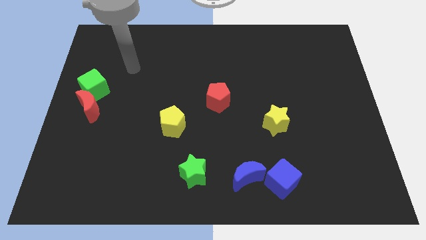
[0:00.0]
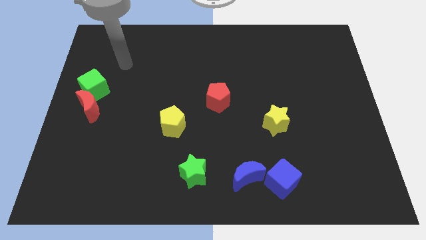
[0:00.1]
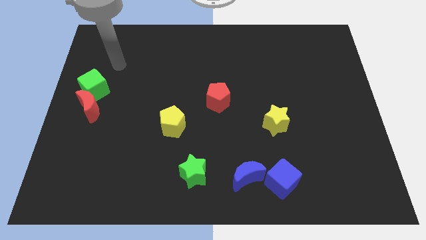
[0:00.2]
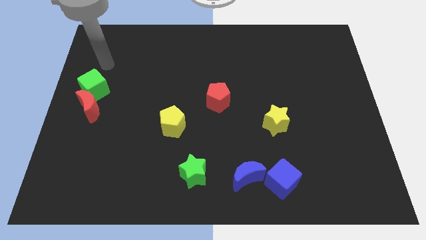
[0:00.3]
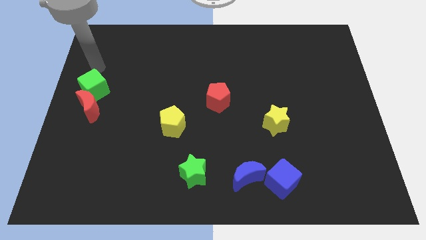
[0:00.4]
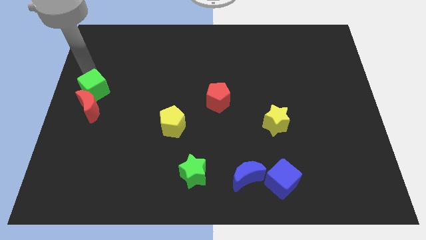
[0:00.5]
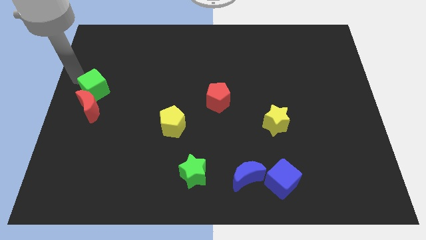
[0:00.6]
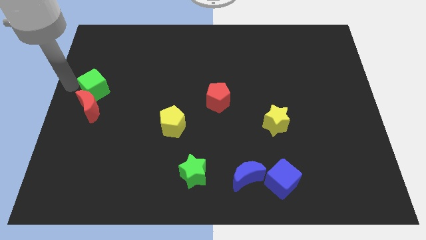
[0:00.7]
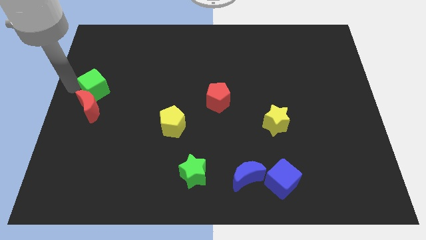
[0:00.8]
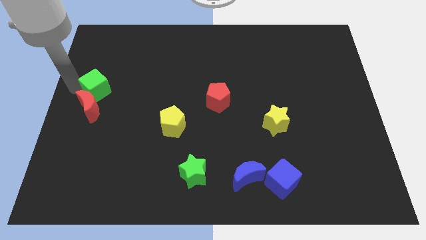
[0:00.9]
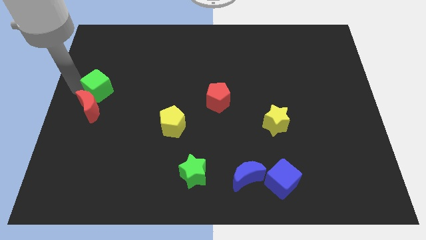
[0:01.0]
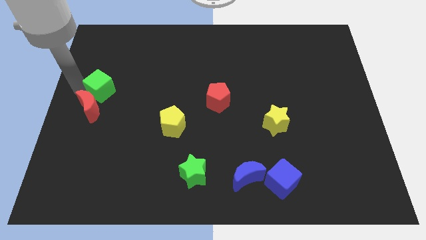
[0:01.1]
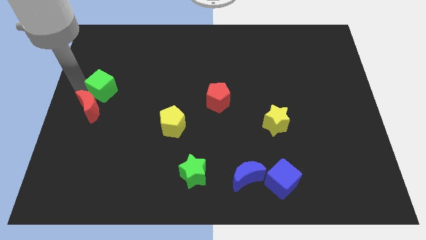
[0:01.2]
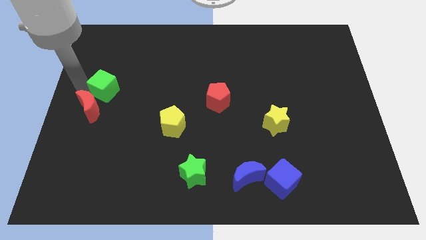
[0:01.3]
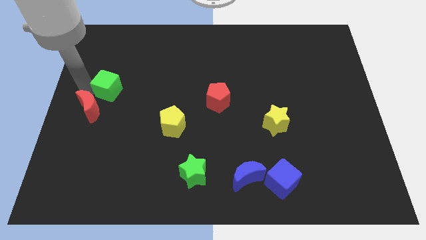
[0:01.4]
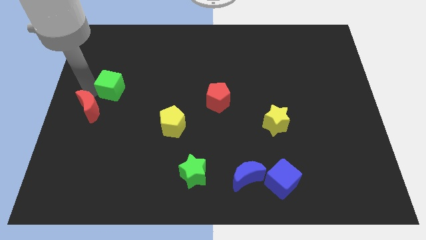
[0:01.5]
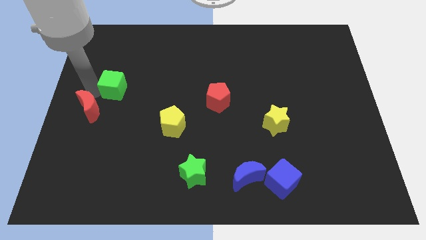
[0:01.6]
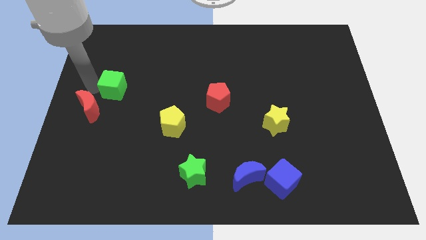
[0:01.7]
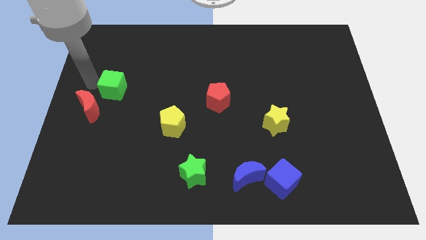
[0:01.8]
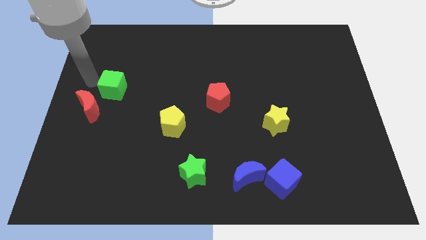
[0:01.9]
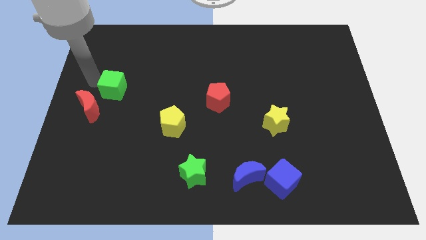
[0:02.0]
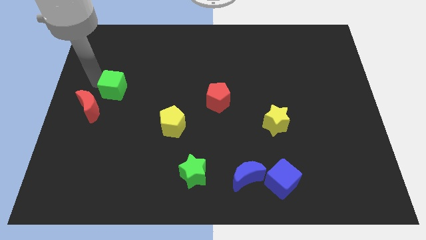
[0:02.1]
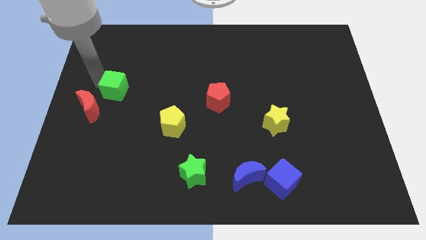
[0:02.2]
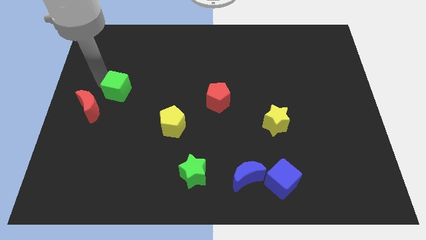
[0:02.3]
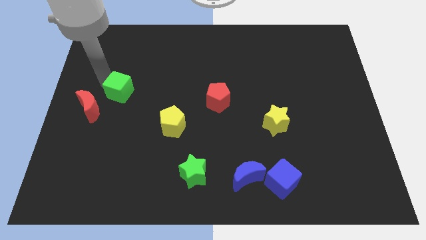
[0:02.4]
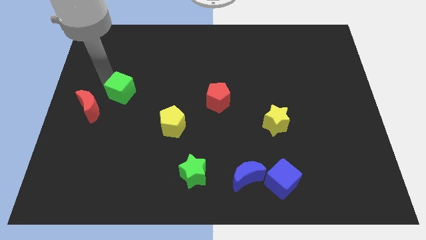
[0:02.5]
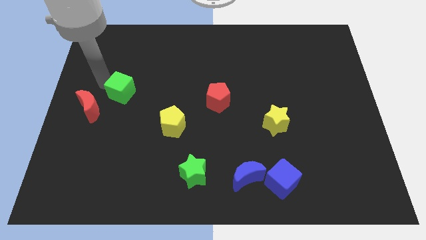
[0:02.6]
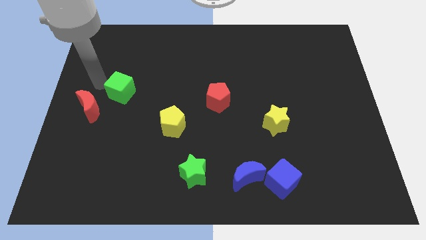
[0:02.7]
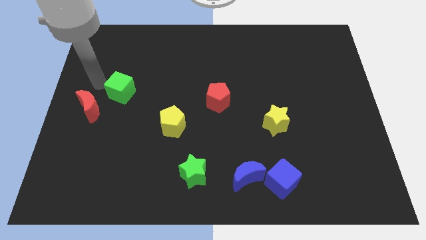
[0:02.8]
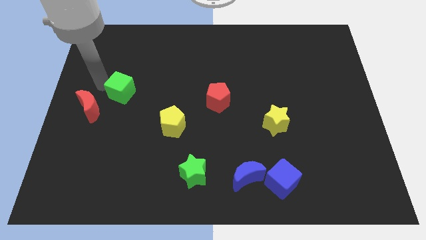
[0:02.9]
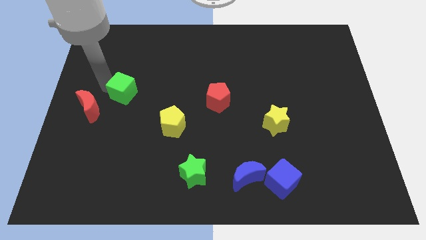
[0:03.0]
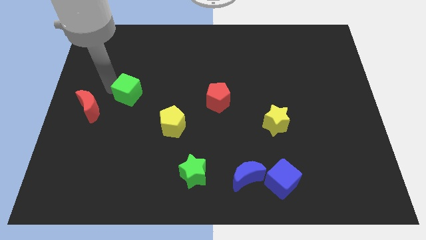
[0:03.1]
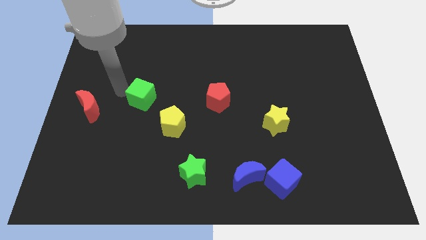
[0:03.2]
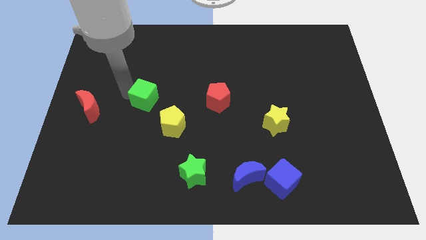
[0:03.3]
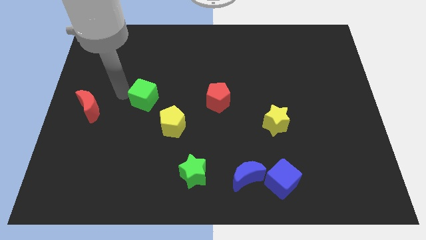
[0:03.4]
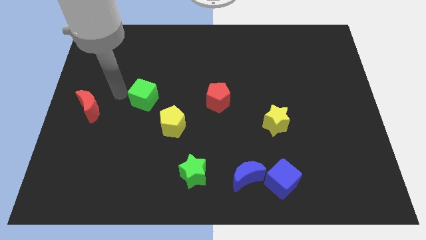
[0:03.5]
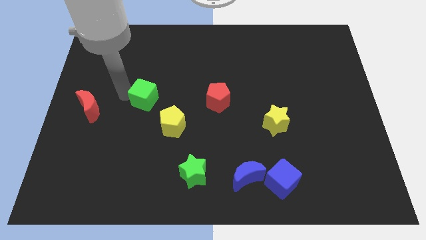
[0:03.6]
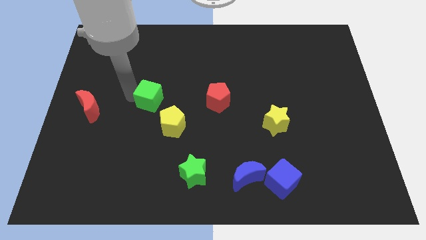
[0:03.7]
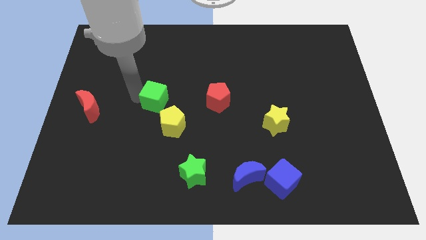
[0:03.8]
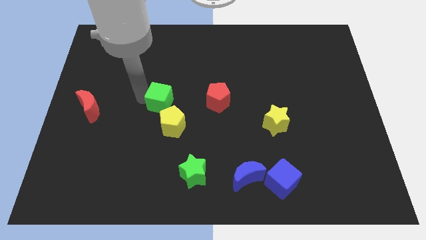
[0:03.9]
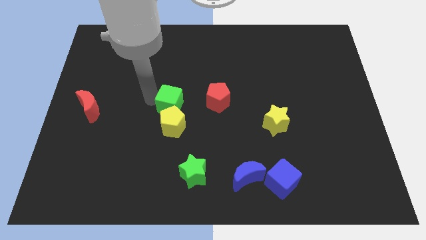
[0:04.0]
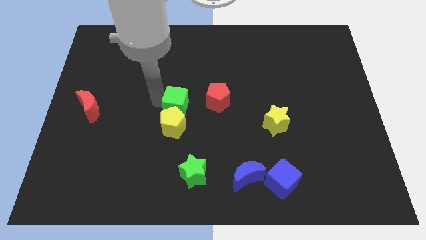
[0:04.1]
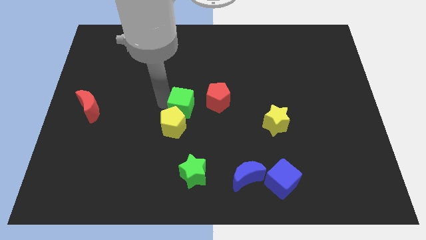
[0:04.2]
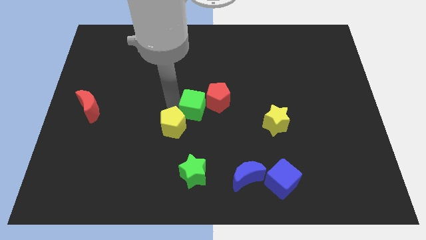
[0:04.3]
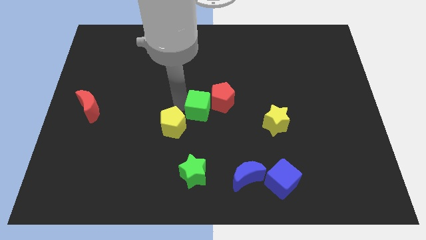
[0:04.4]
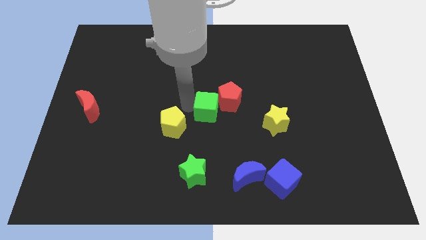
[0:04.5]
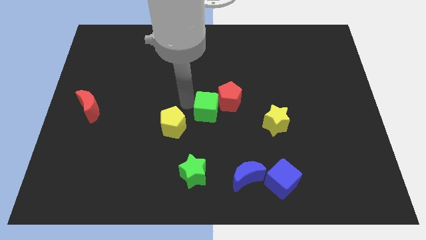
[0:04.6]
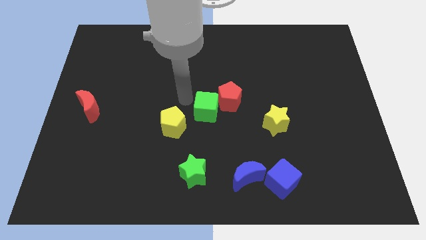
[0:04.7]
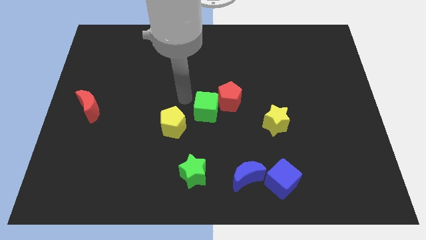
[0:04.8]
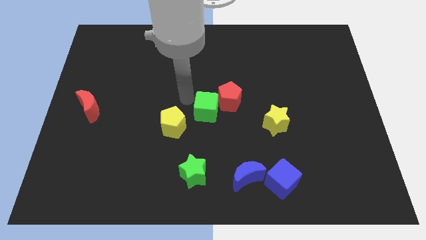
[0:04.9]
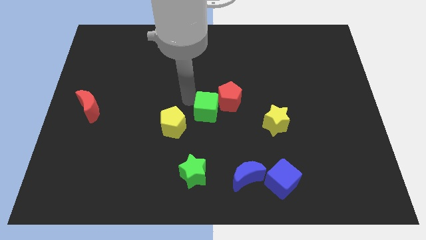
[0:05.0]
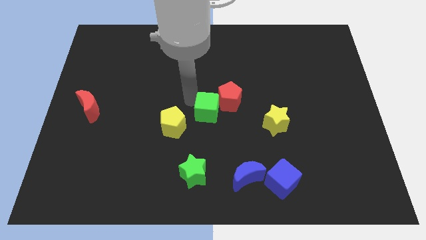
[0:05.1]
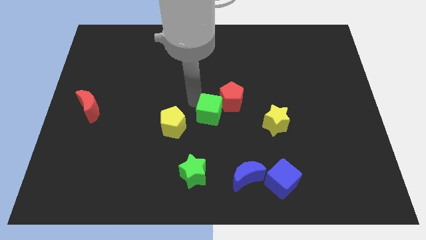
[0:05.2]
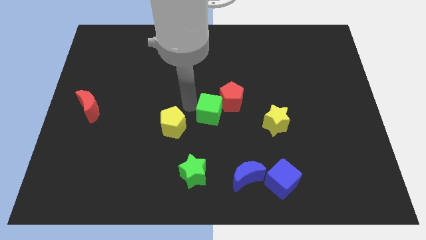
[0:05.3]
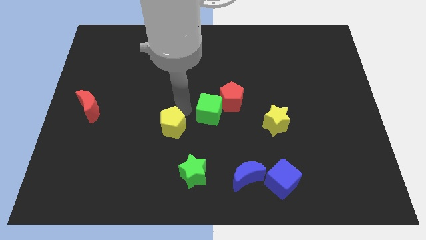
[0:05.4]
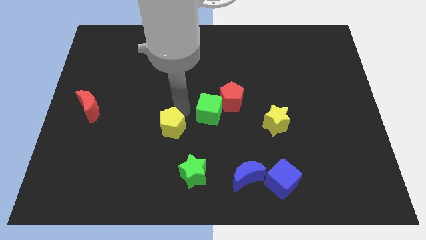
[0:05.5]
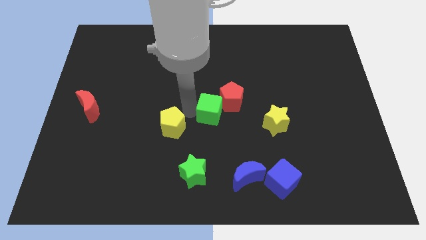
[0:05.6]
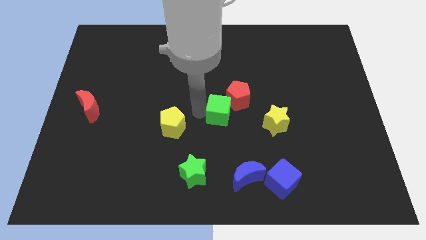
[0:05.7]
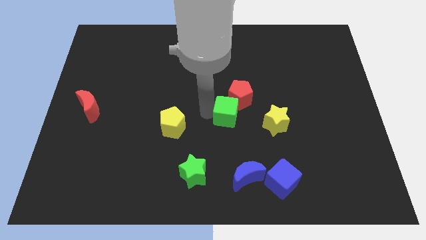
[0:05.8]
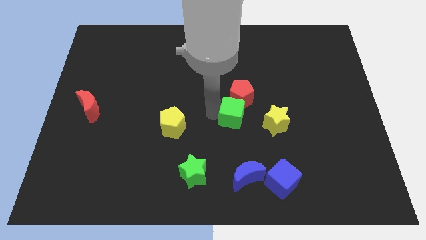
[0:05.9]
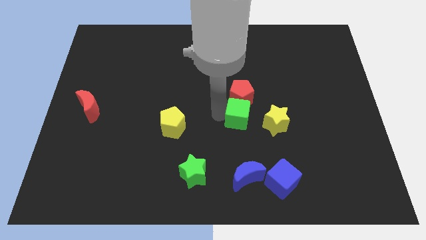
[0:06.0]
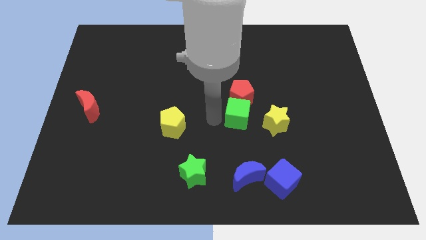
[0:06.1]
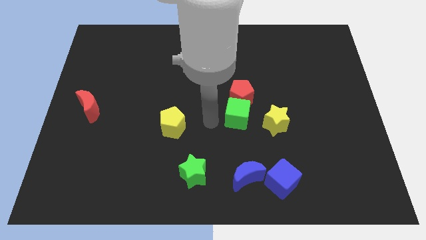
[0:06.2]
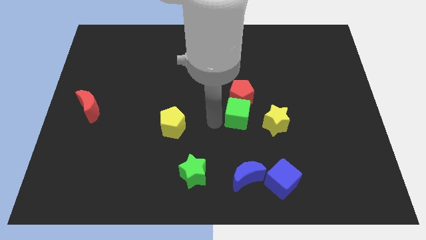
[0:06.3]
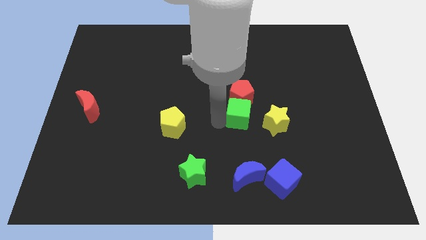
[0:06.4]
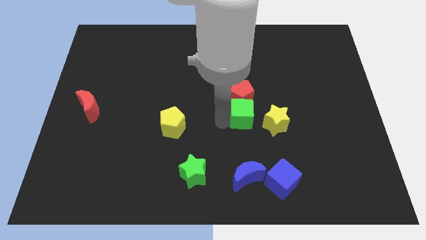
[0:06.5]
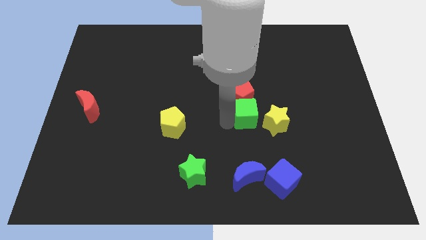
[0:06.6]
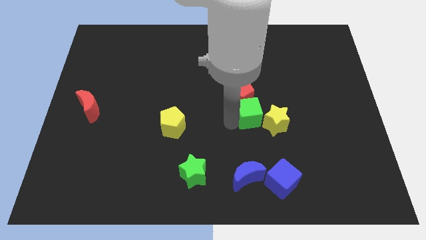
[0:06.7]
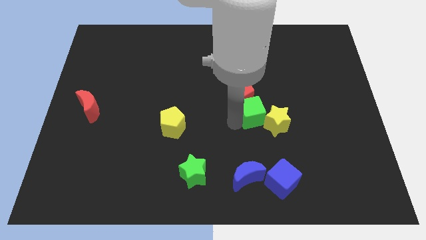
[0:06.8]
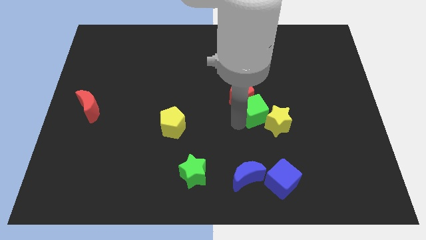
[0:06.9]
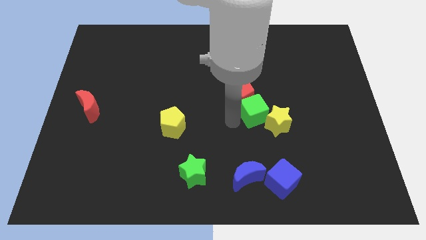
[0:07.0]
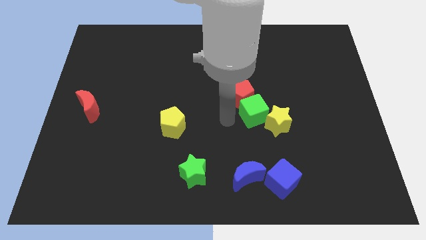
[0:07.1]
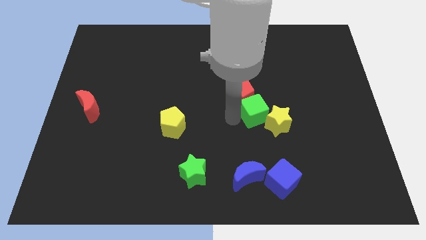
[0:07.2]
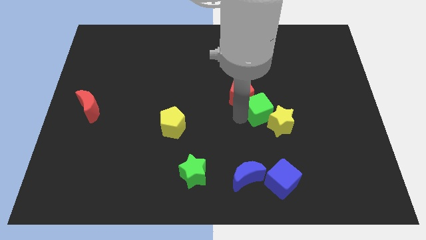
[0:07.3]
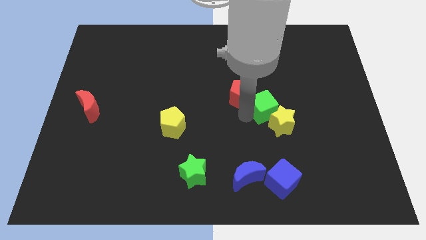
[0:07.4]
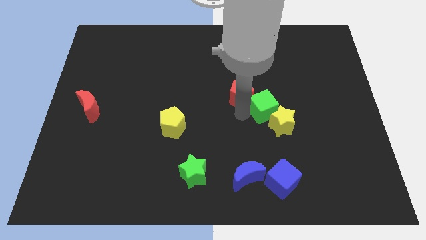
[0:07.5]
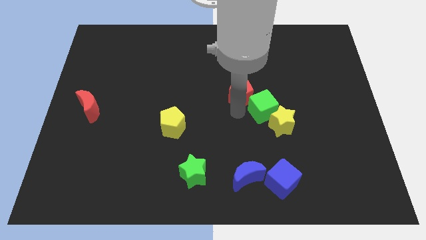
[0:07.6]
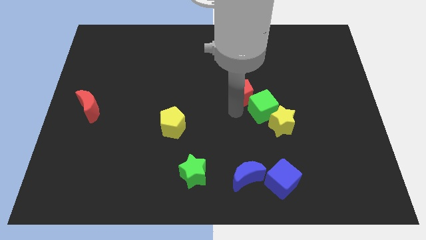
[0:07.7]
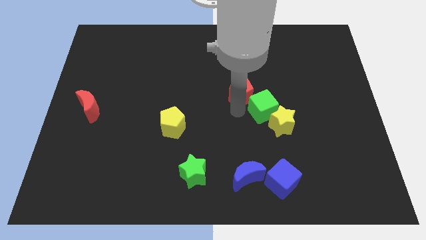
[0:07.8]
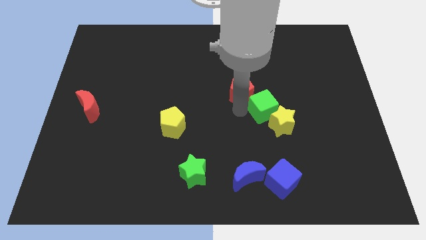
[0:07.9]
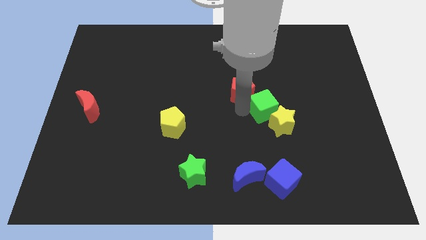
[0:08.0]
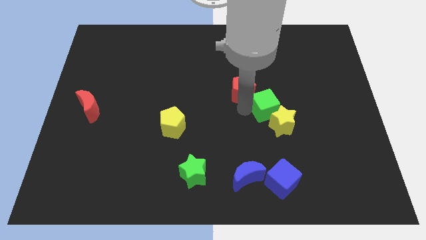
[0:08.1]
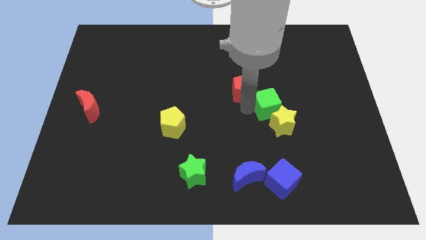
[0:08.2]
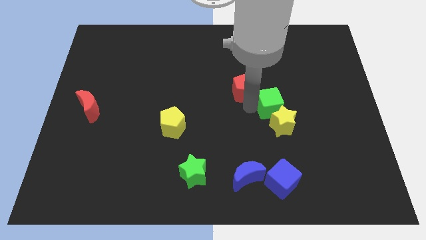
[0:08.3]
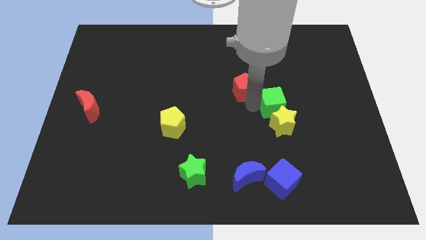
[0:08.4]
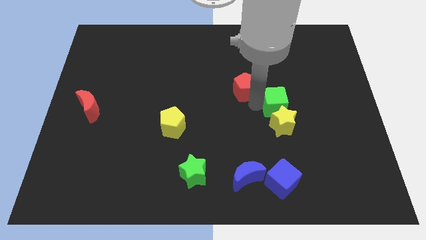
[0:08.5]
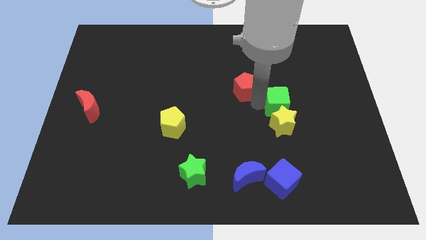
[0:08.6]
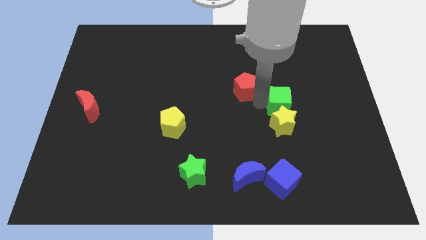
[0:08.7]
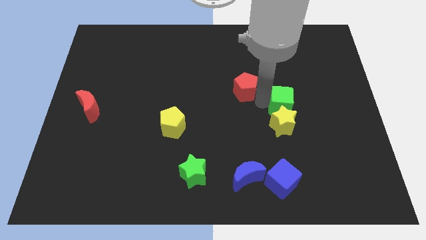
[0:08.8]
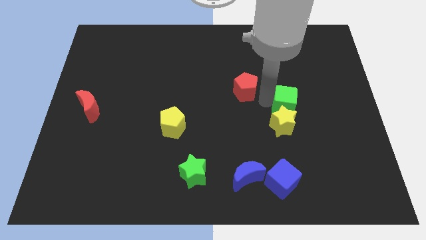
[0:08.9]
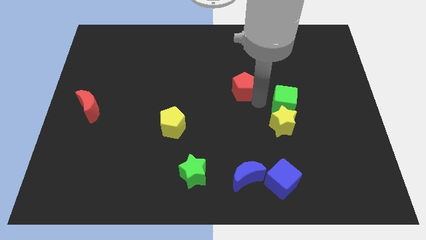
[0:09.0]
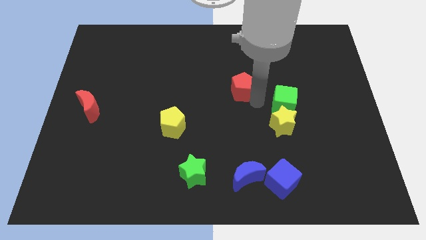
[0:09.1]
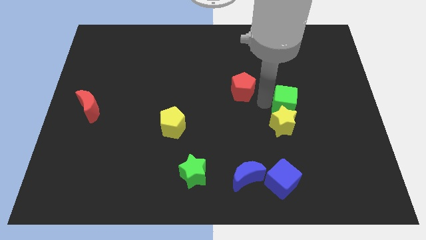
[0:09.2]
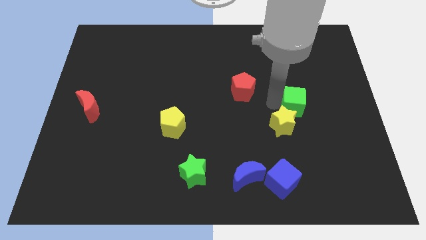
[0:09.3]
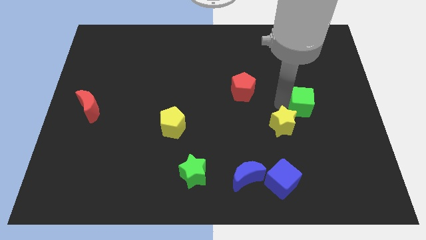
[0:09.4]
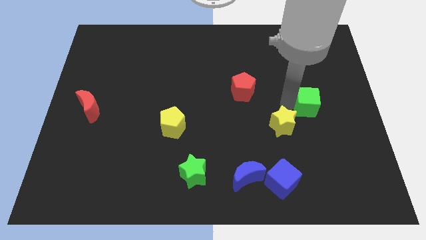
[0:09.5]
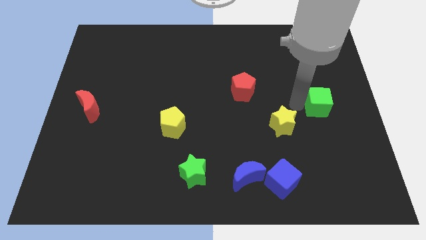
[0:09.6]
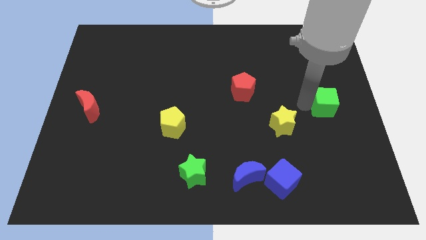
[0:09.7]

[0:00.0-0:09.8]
slide the green cube to the right side
